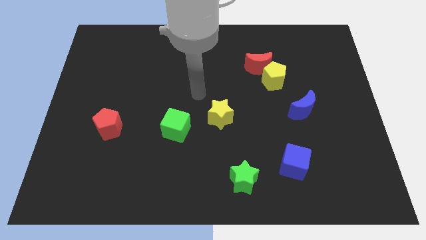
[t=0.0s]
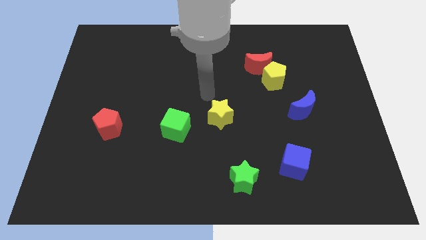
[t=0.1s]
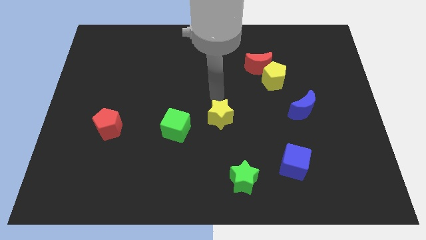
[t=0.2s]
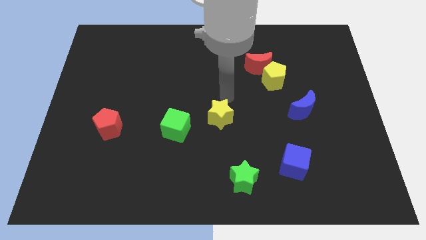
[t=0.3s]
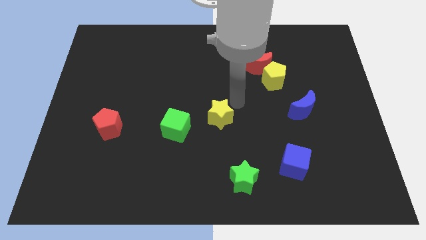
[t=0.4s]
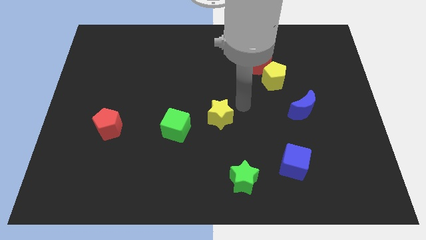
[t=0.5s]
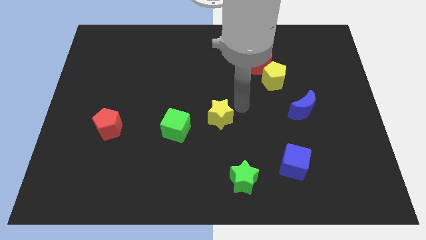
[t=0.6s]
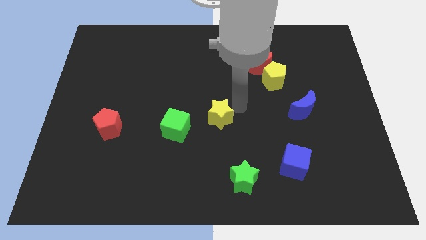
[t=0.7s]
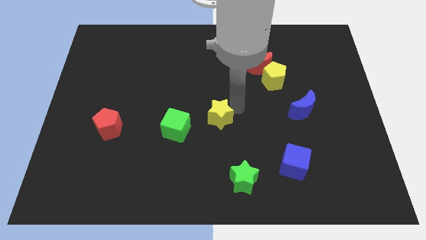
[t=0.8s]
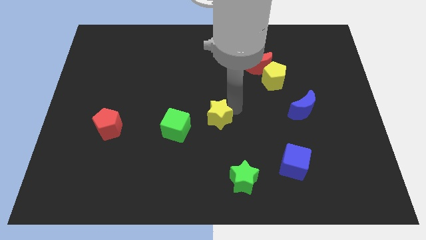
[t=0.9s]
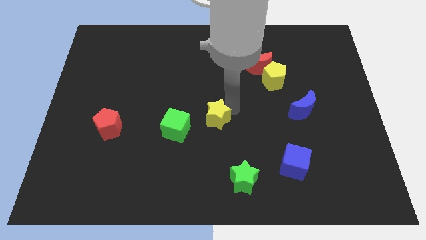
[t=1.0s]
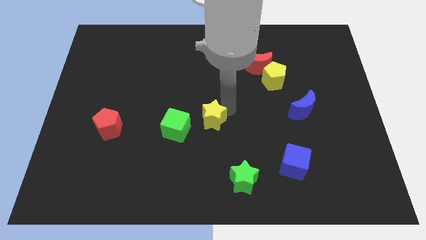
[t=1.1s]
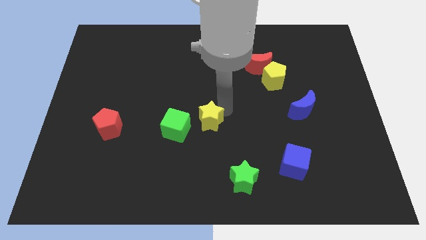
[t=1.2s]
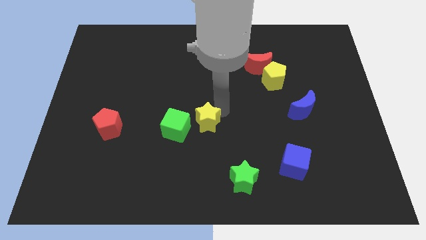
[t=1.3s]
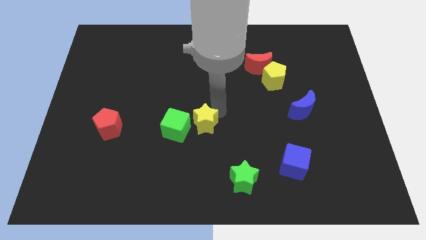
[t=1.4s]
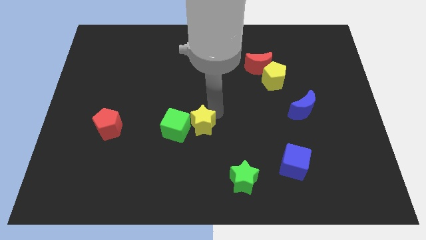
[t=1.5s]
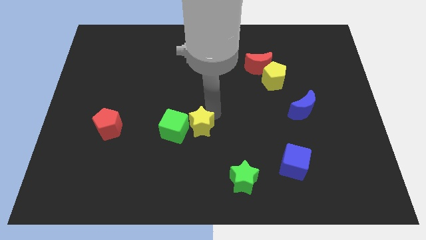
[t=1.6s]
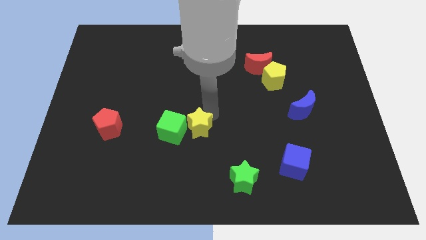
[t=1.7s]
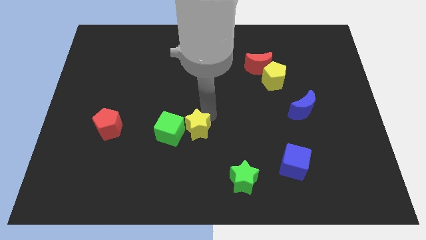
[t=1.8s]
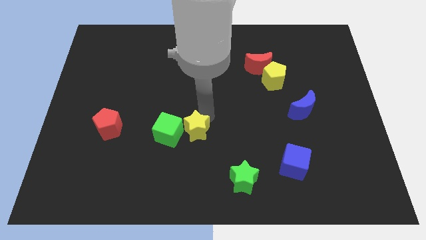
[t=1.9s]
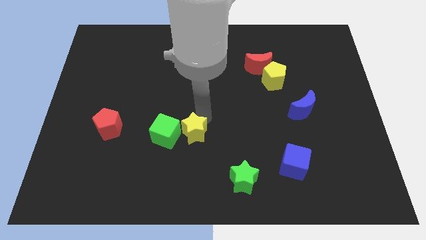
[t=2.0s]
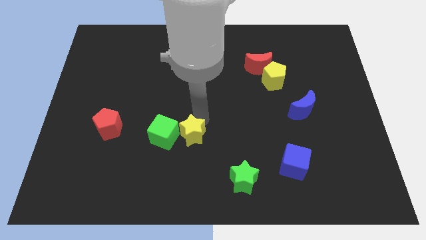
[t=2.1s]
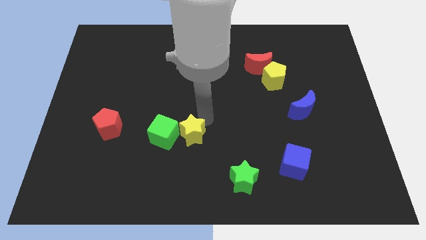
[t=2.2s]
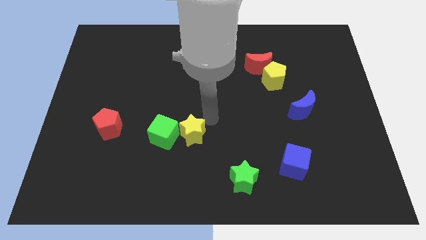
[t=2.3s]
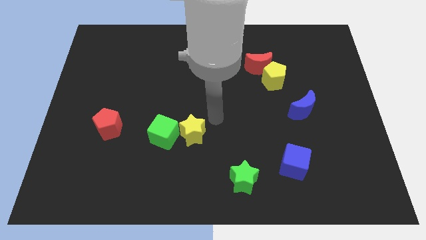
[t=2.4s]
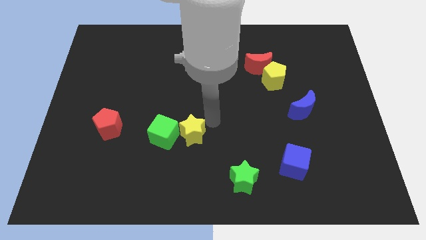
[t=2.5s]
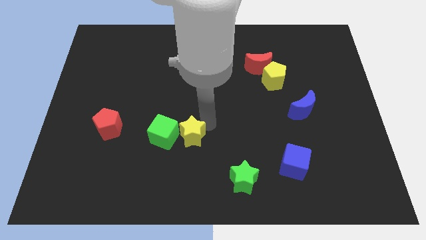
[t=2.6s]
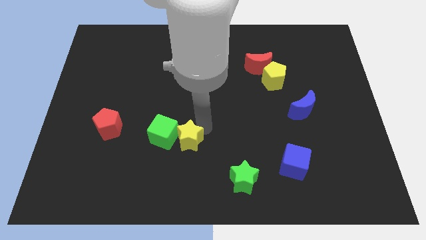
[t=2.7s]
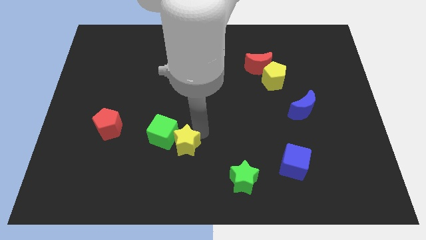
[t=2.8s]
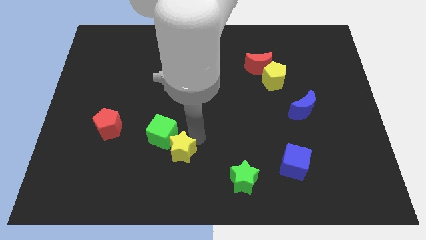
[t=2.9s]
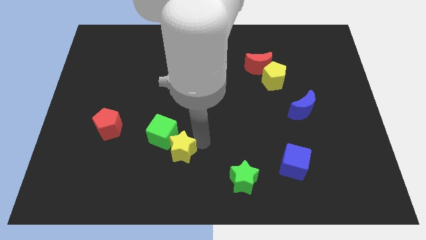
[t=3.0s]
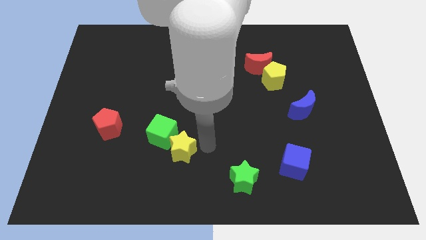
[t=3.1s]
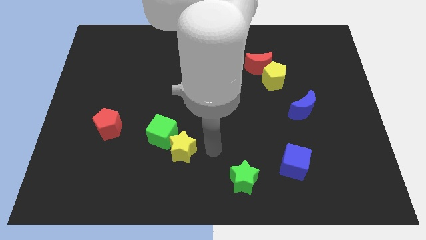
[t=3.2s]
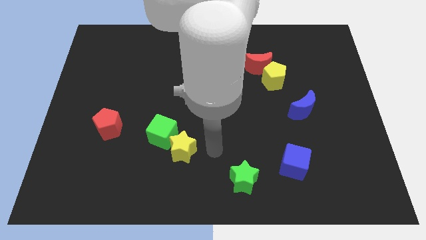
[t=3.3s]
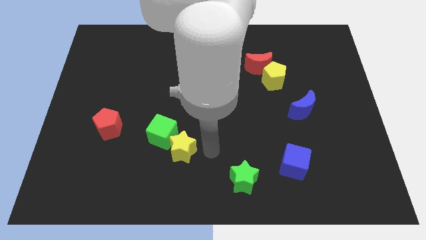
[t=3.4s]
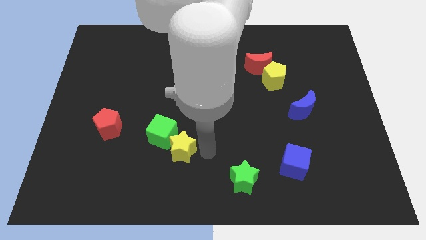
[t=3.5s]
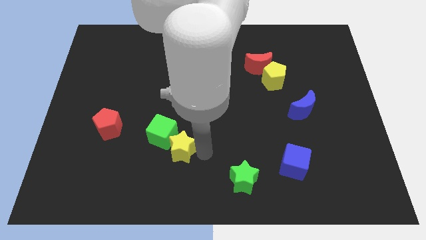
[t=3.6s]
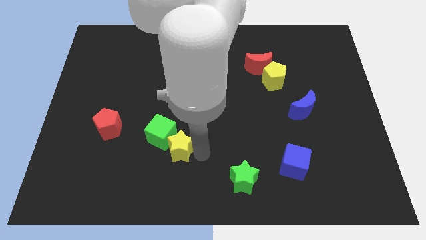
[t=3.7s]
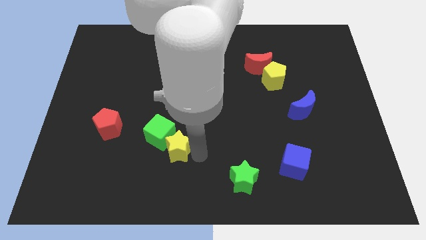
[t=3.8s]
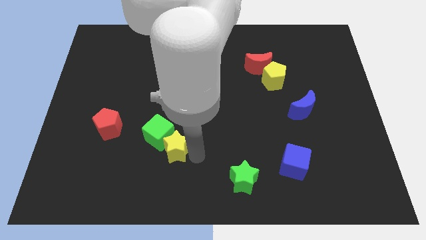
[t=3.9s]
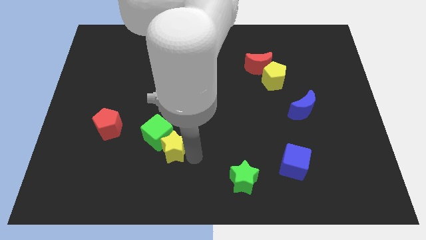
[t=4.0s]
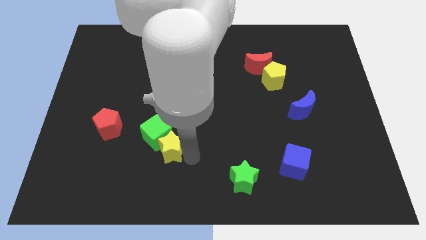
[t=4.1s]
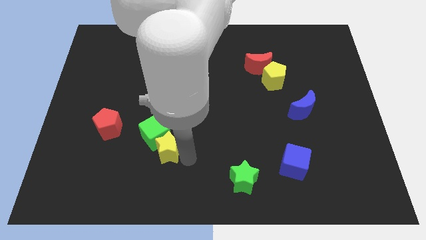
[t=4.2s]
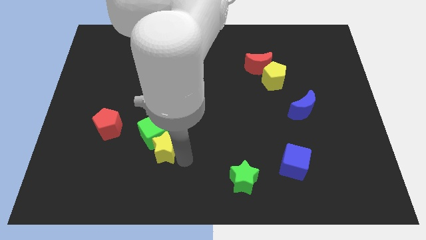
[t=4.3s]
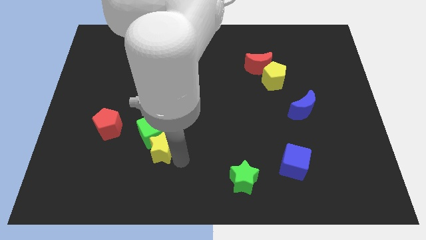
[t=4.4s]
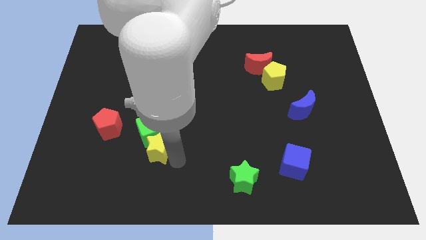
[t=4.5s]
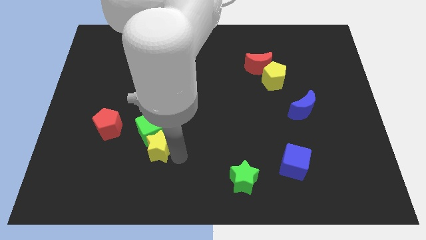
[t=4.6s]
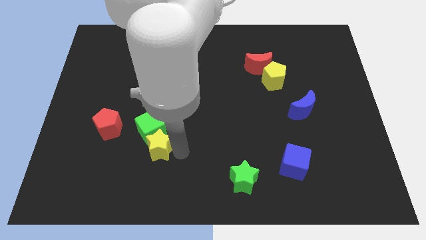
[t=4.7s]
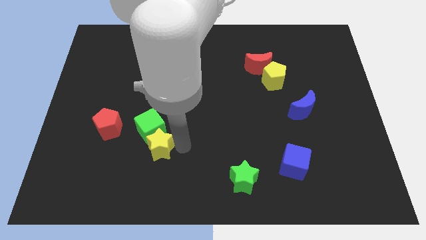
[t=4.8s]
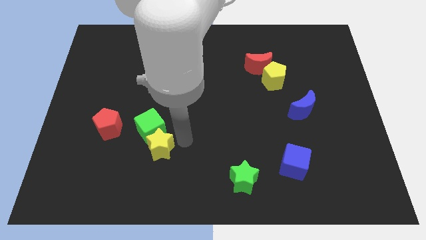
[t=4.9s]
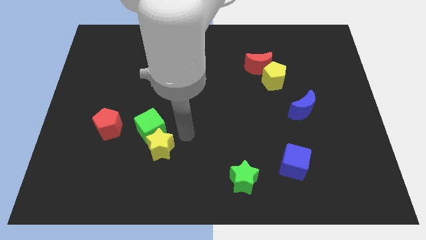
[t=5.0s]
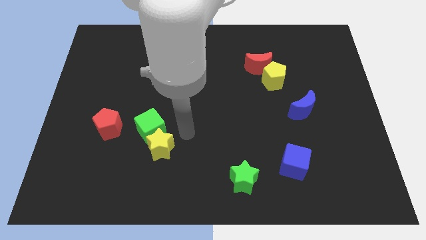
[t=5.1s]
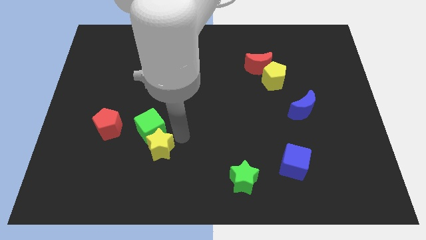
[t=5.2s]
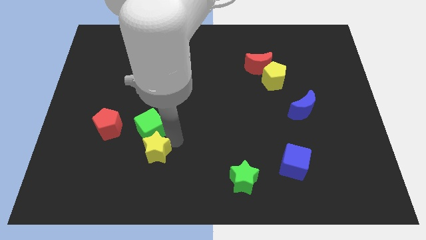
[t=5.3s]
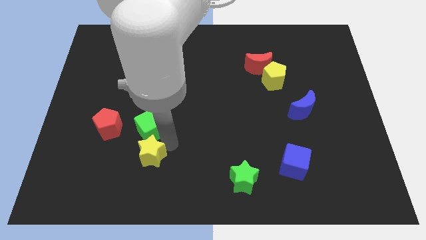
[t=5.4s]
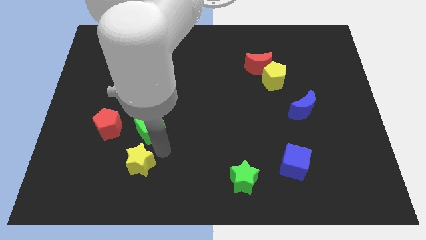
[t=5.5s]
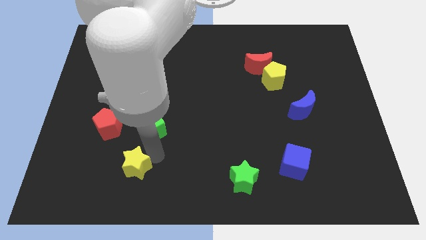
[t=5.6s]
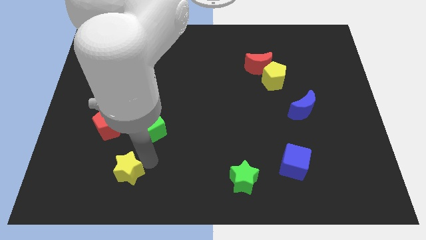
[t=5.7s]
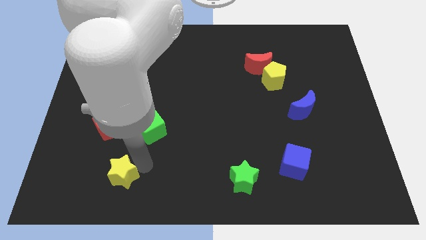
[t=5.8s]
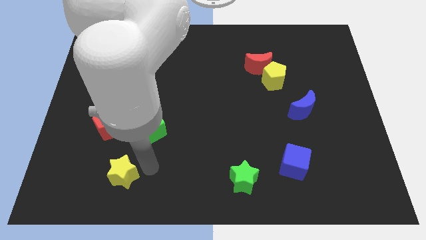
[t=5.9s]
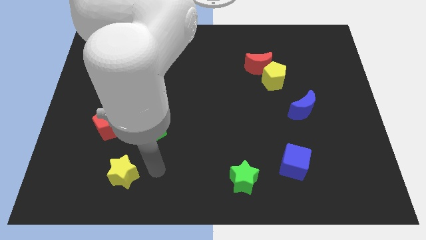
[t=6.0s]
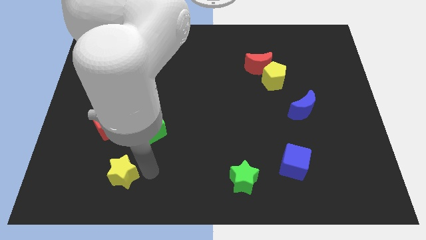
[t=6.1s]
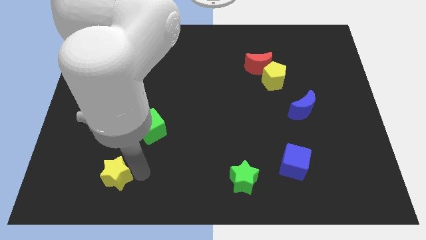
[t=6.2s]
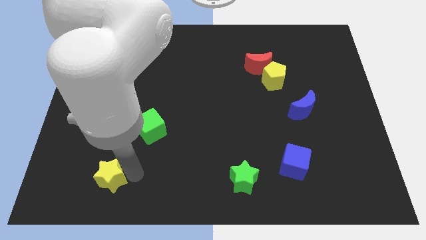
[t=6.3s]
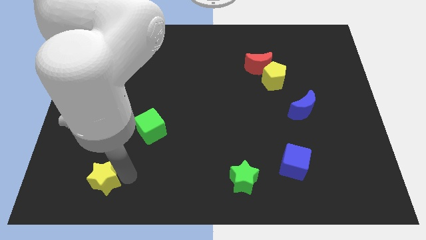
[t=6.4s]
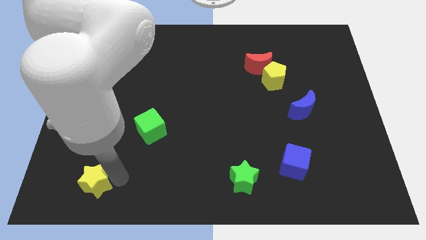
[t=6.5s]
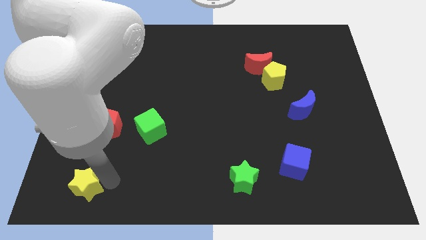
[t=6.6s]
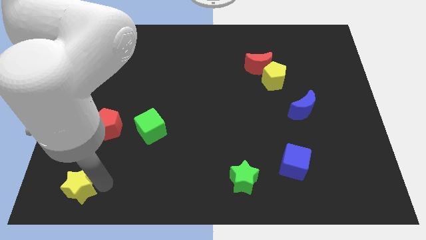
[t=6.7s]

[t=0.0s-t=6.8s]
move the yellow star to the bottom left of the board
